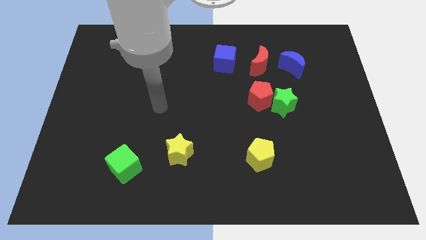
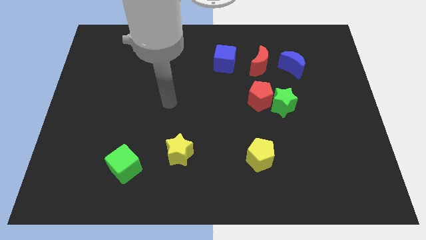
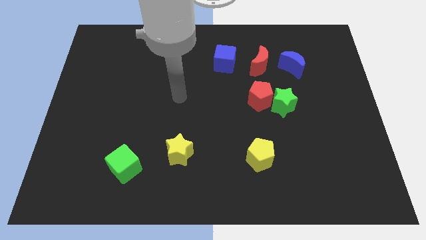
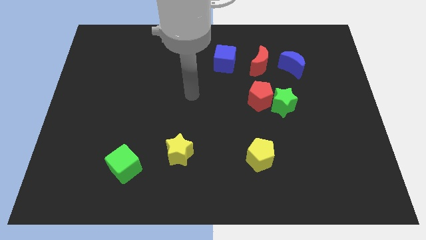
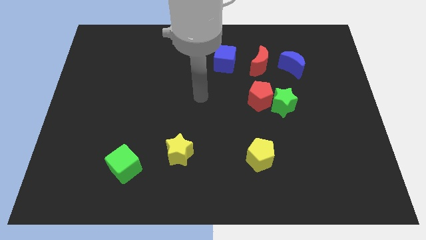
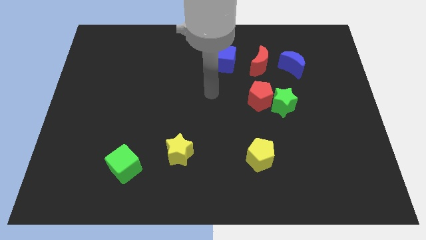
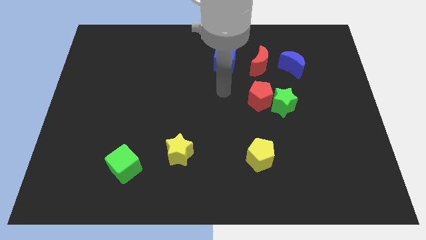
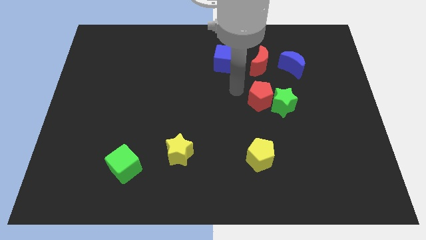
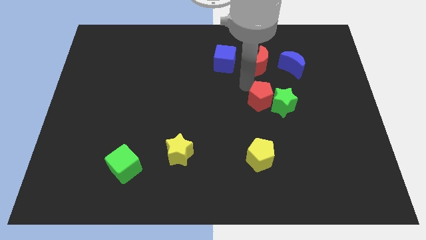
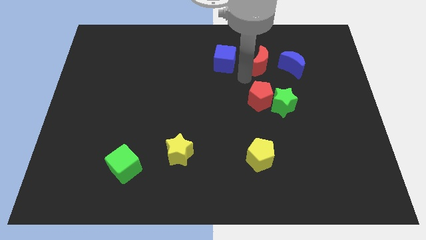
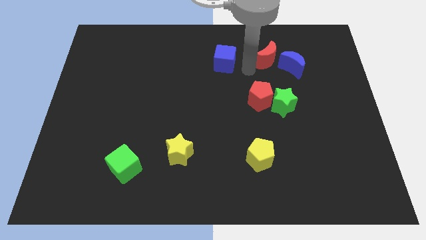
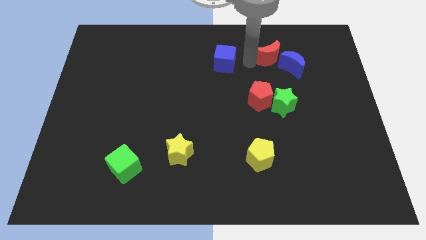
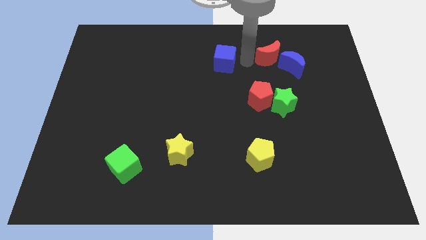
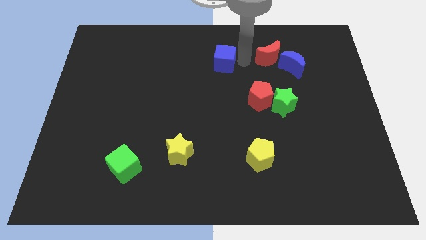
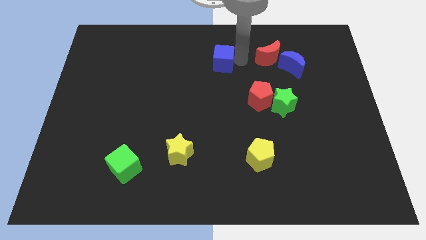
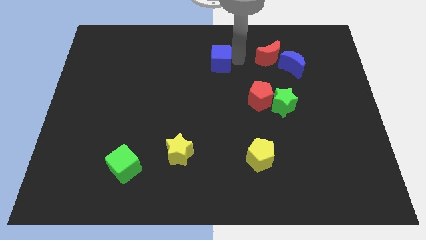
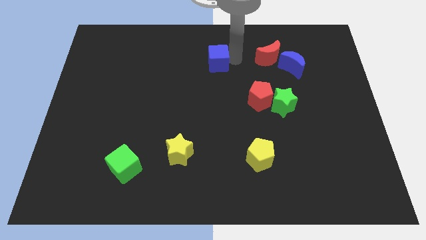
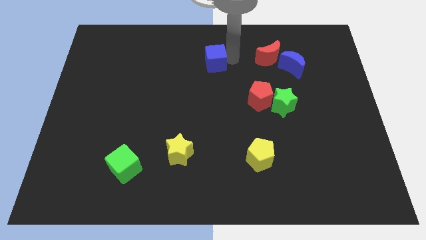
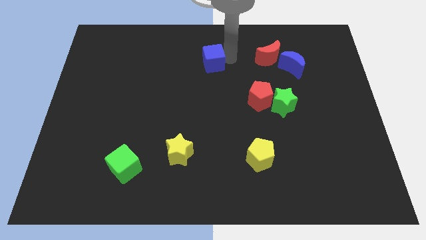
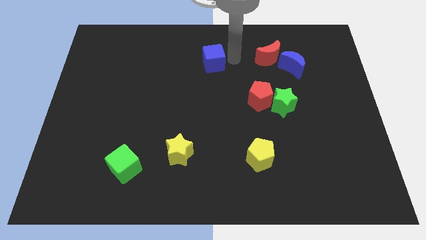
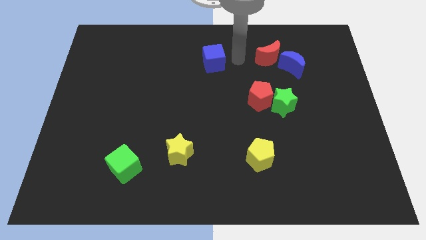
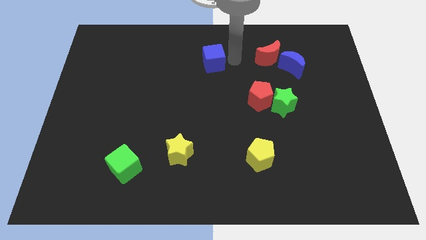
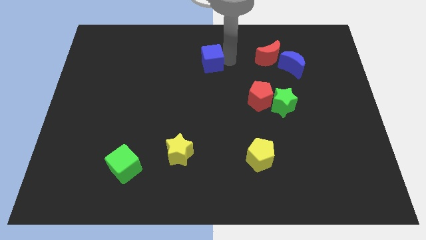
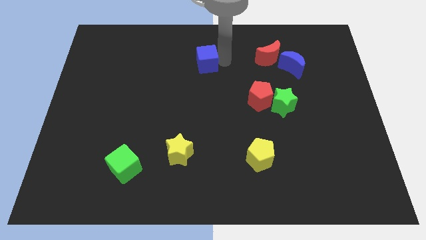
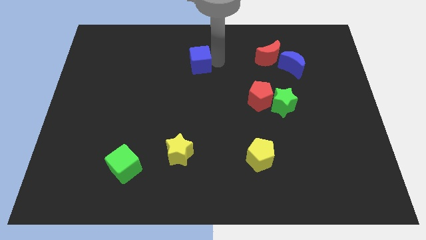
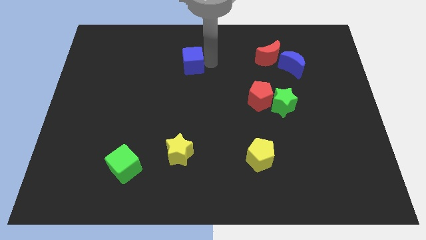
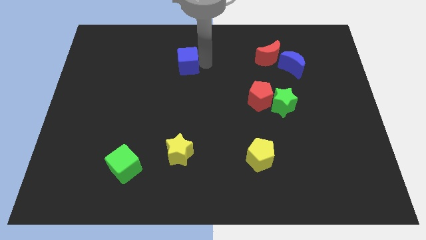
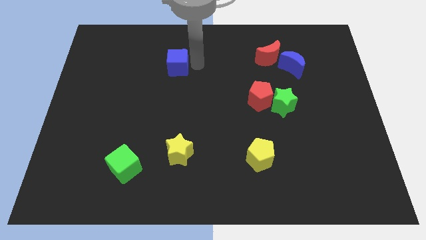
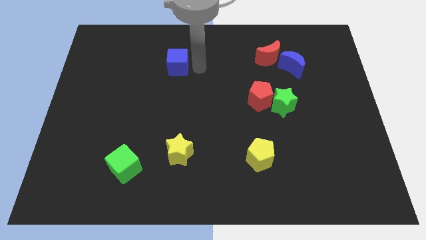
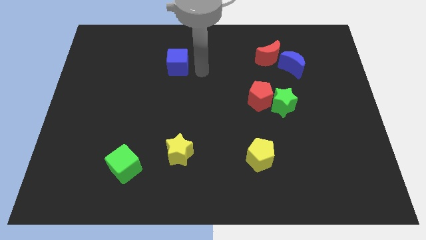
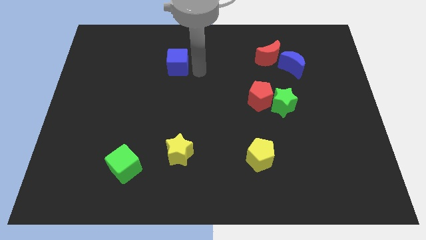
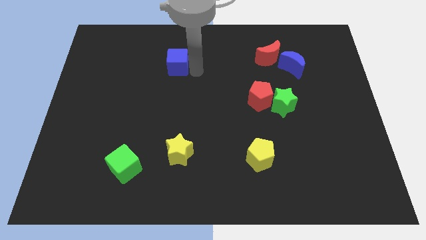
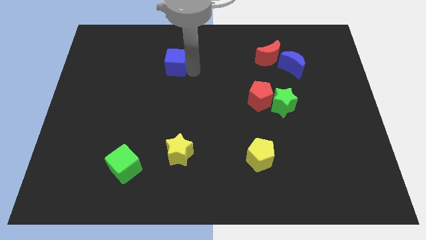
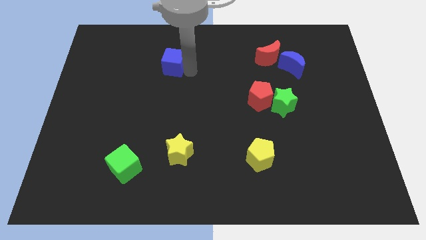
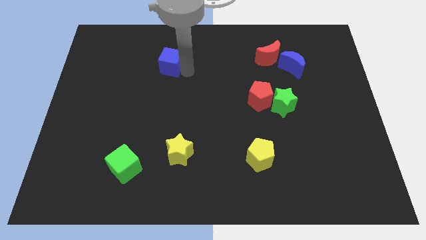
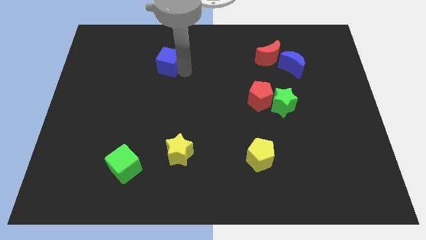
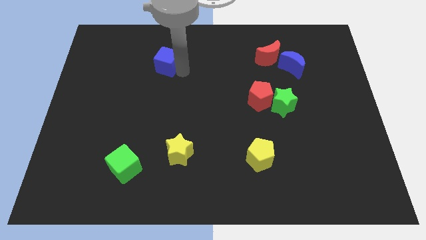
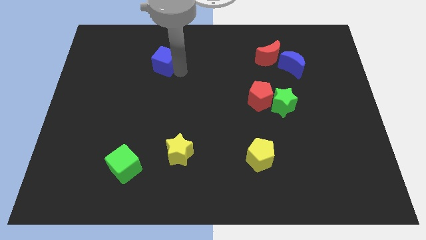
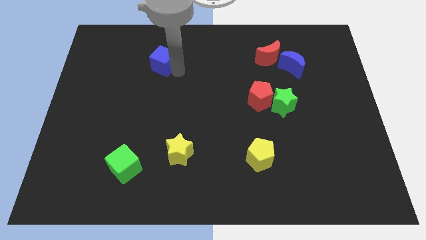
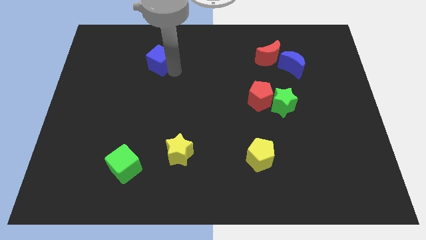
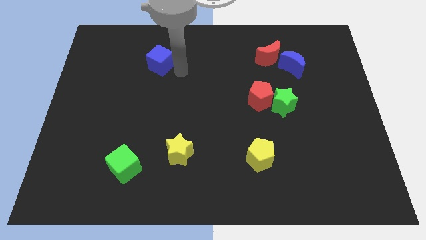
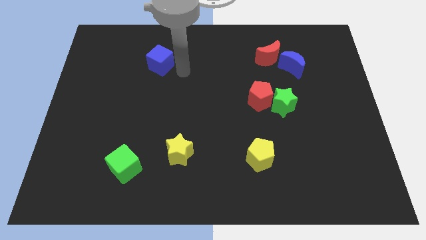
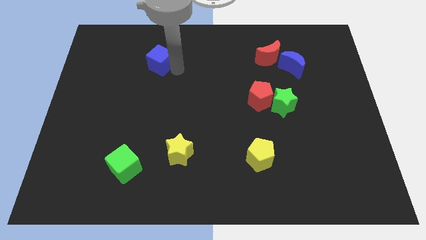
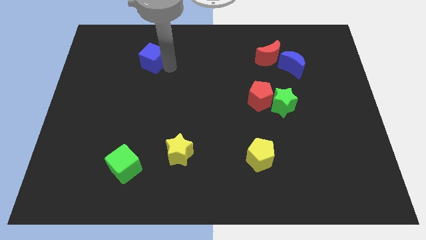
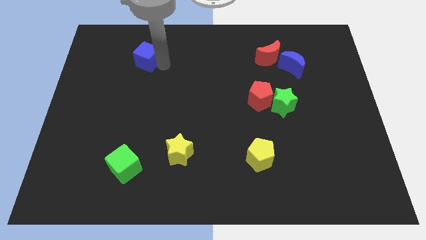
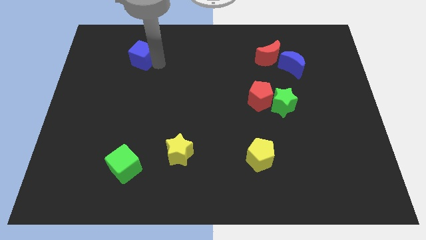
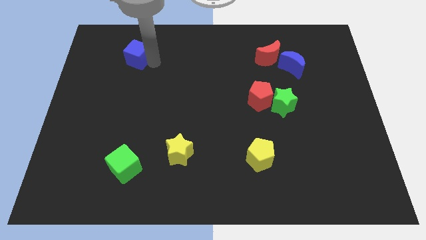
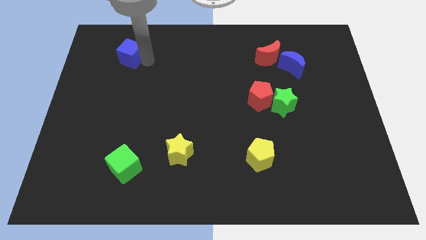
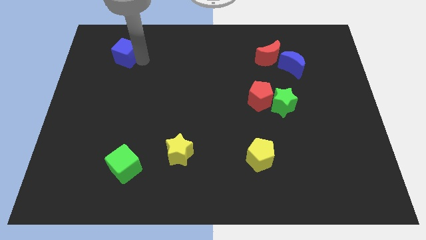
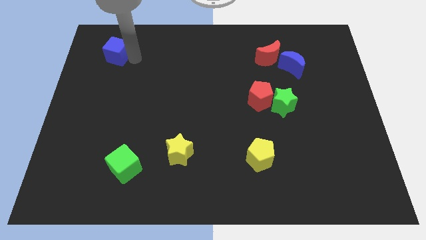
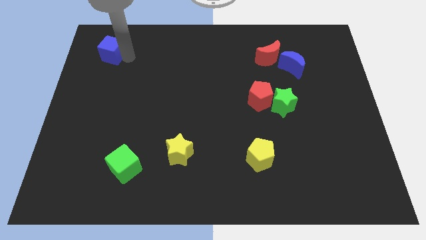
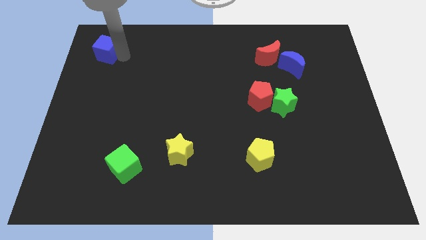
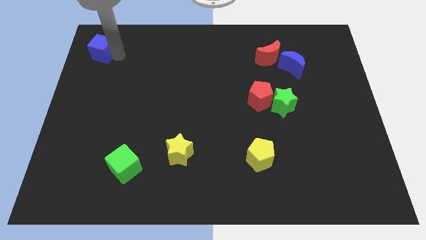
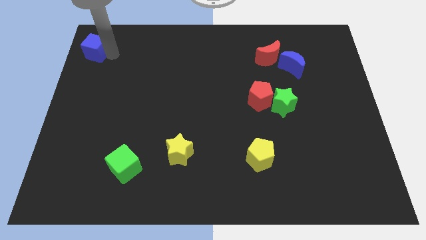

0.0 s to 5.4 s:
slide the blue cube to the top left corner

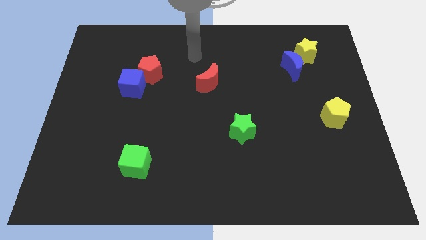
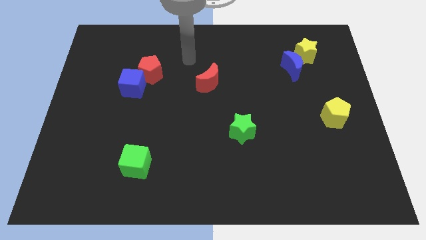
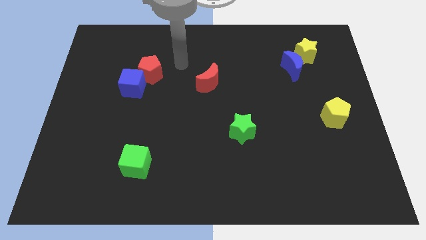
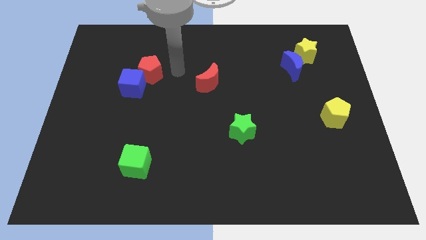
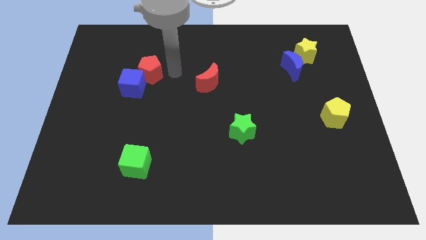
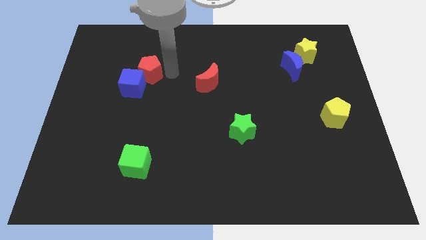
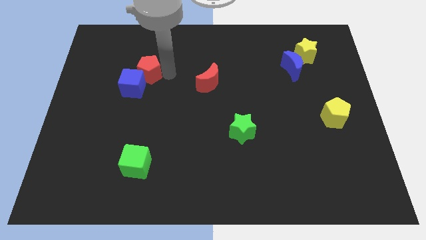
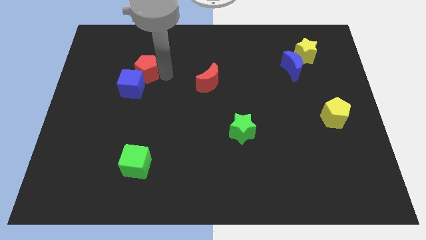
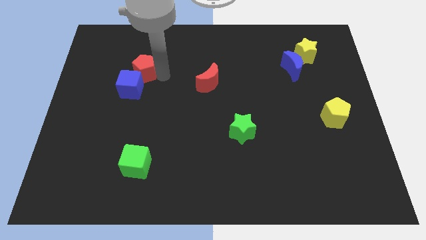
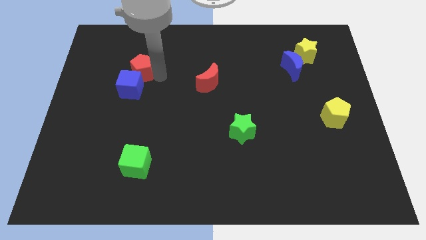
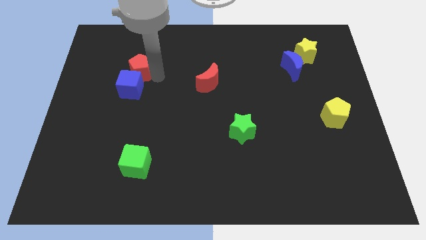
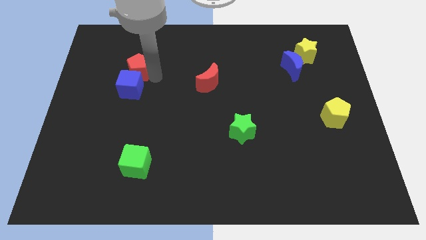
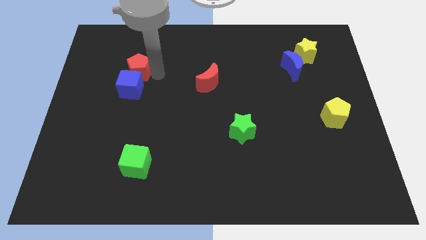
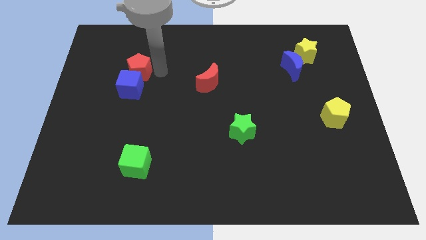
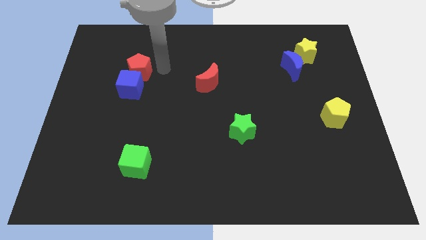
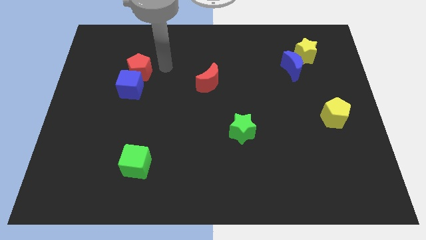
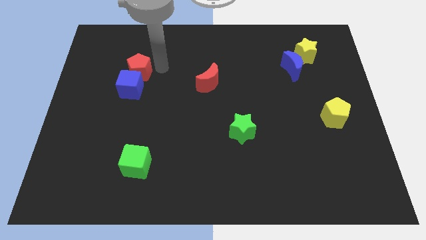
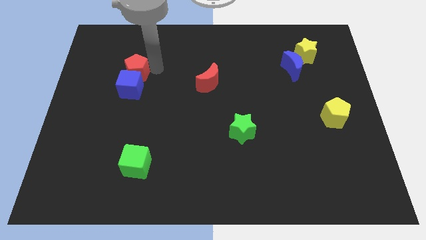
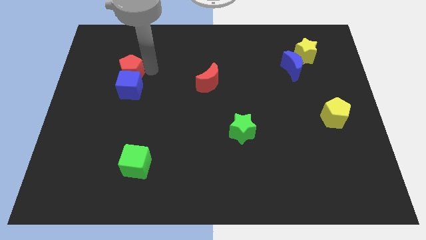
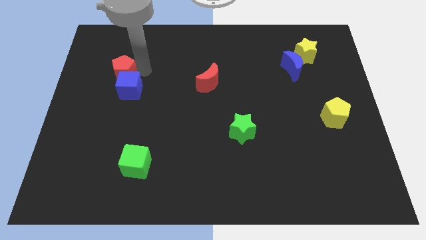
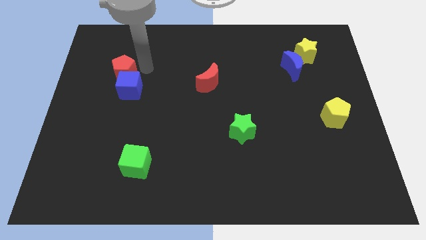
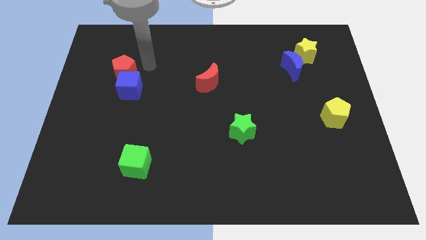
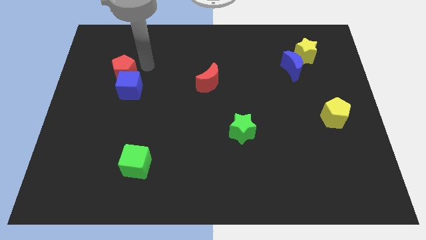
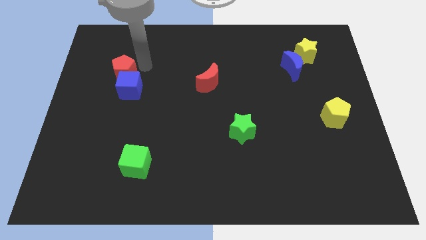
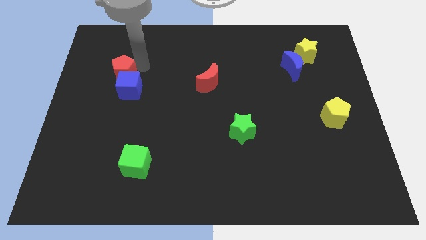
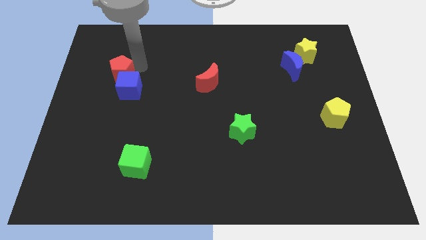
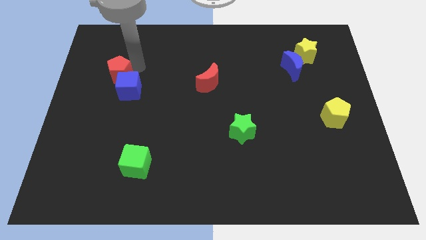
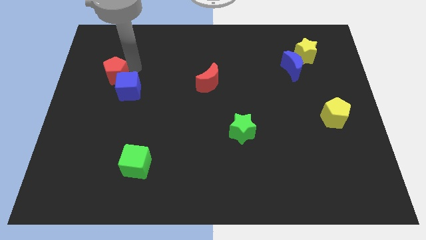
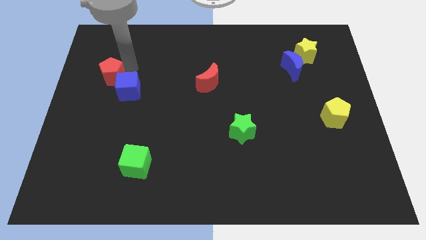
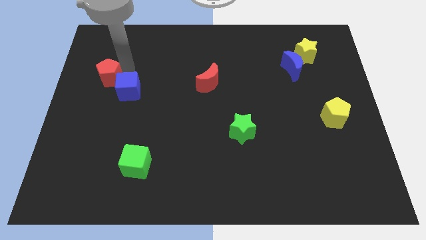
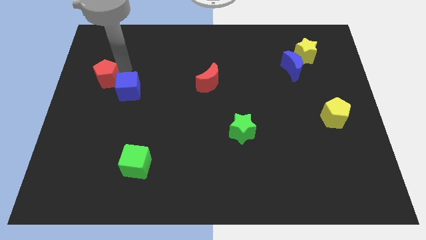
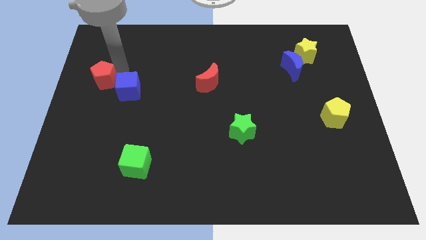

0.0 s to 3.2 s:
put the red pentagon to the left side of the board
